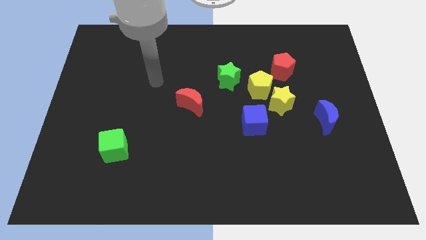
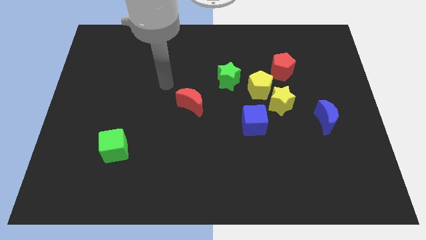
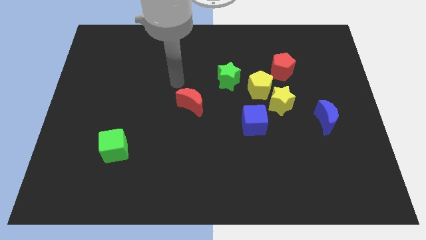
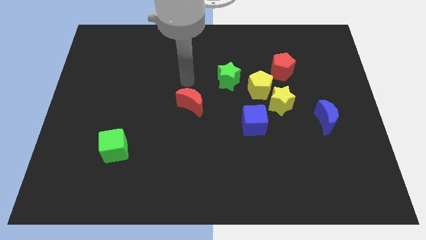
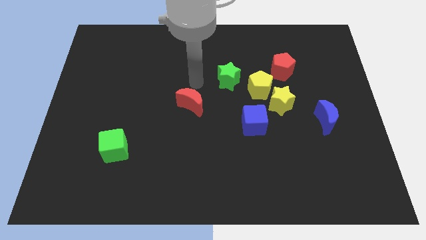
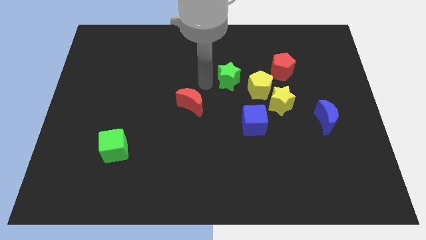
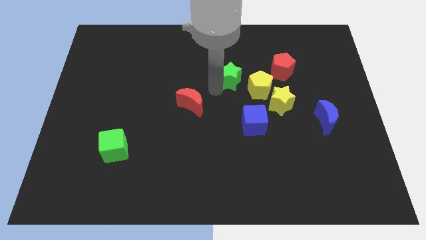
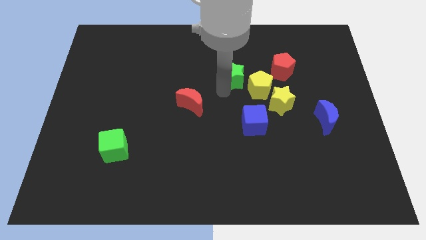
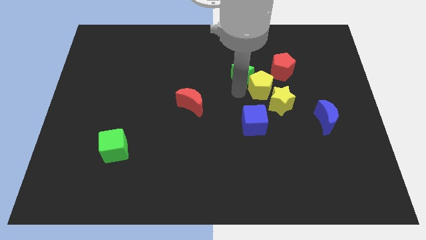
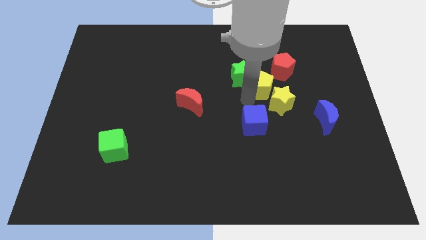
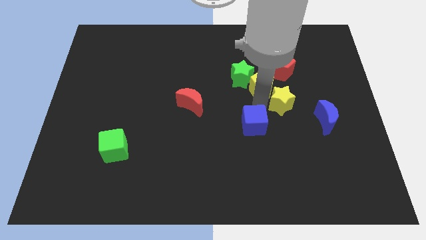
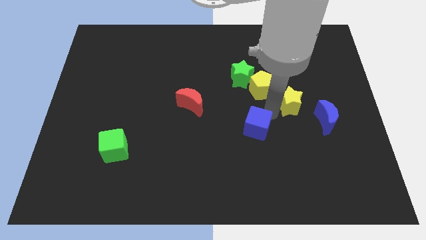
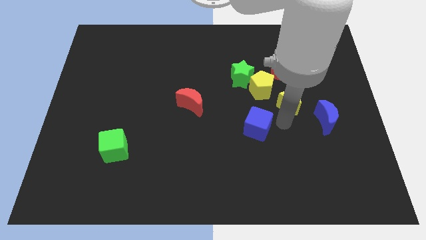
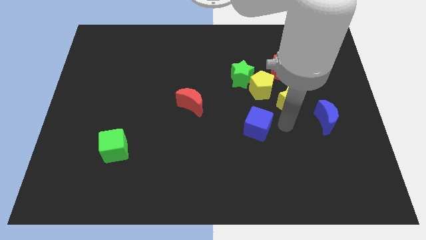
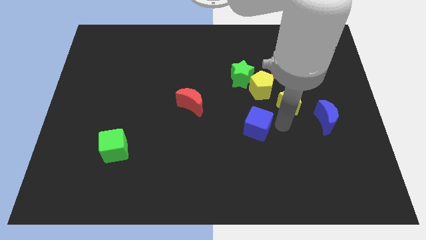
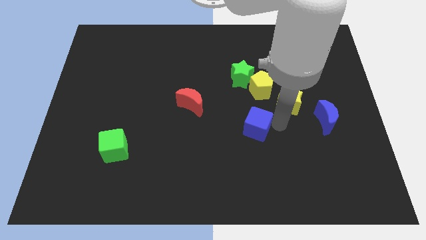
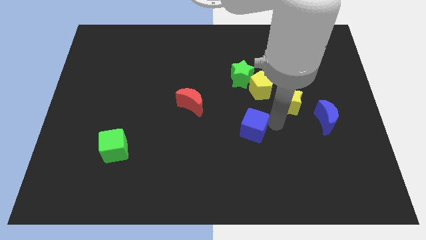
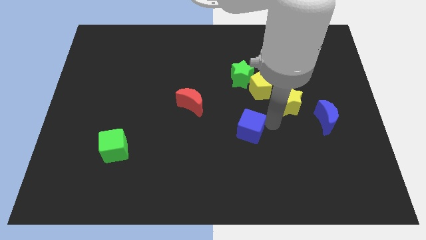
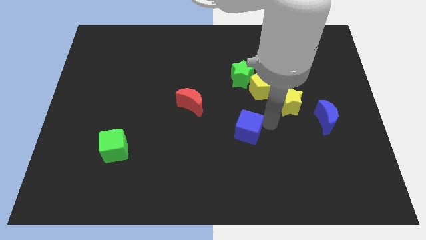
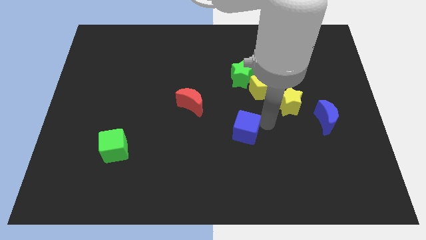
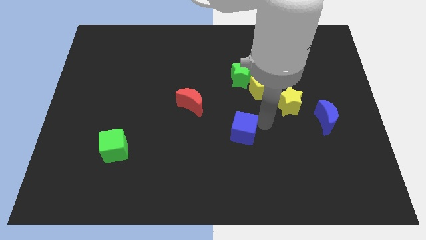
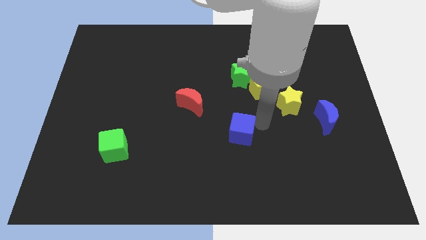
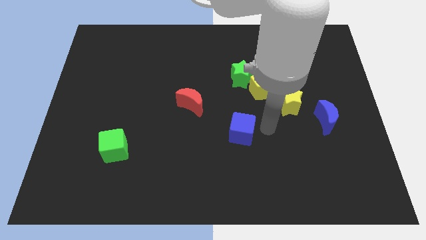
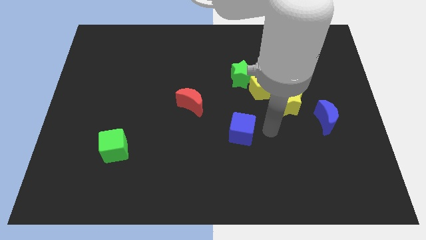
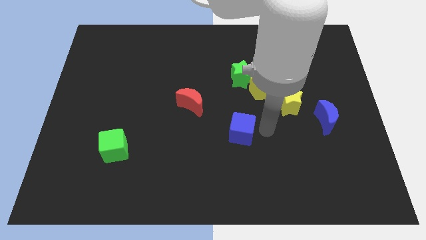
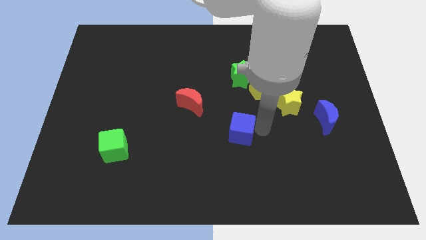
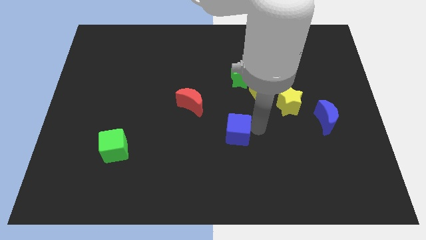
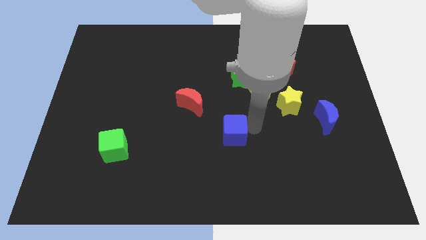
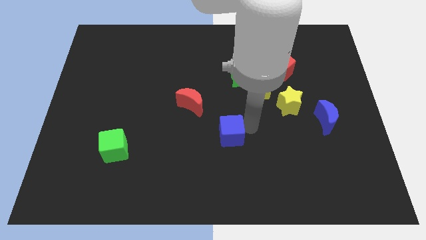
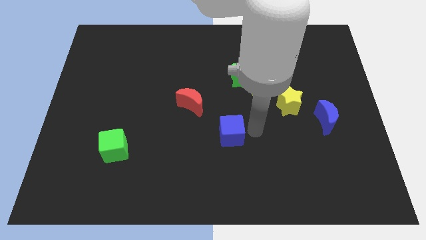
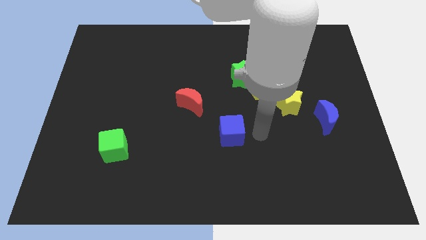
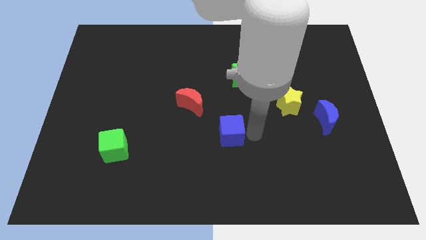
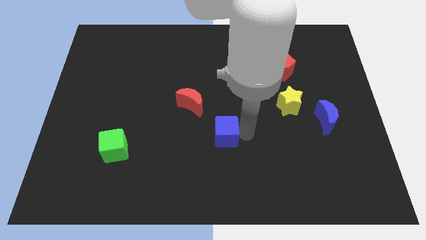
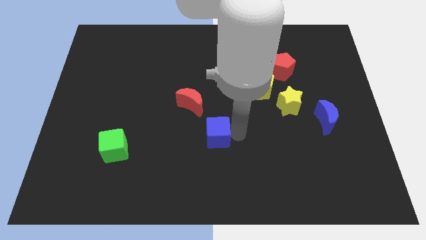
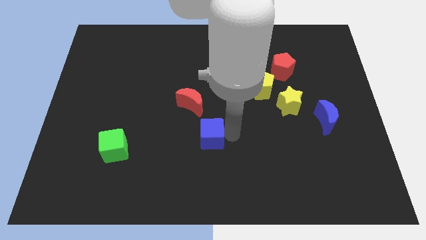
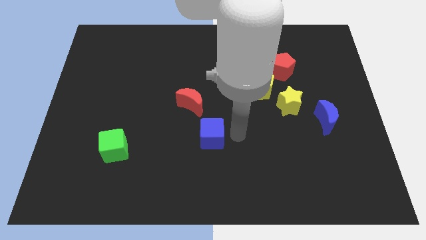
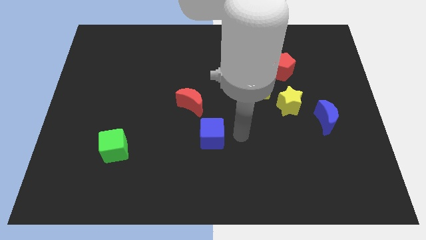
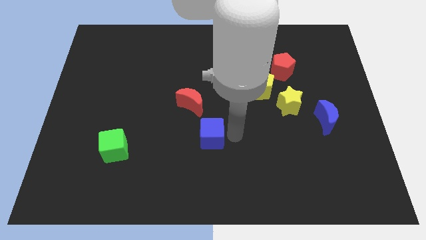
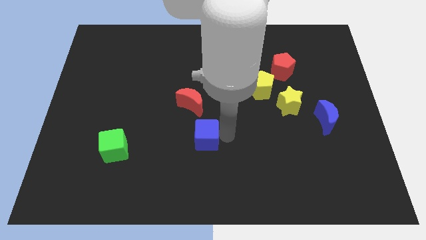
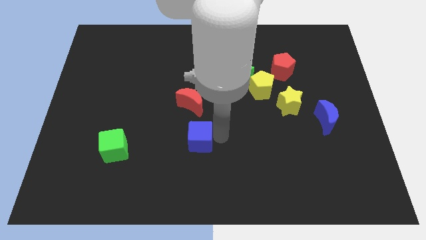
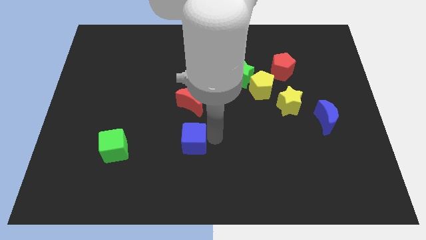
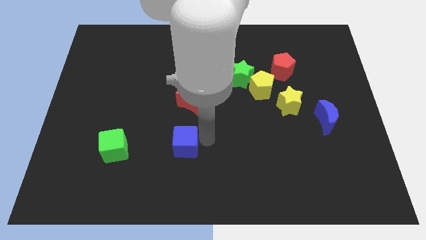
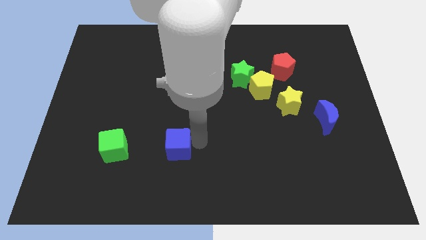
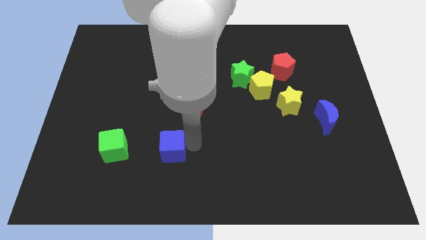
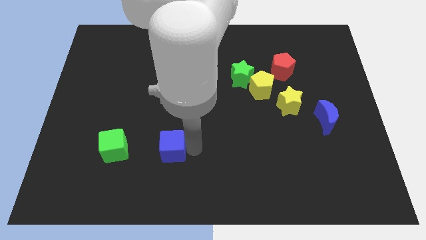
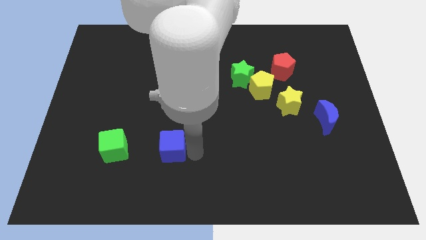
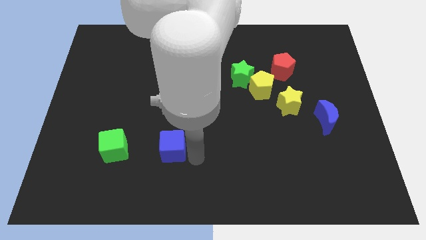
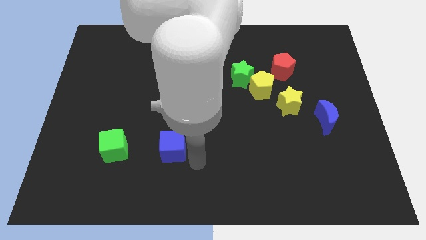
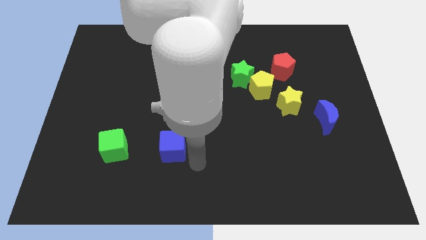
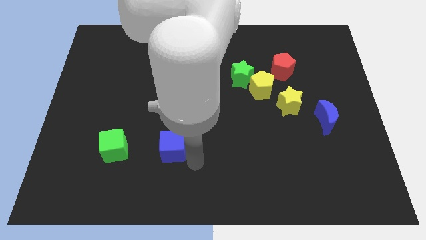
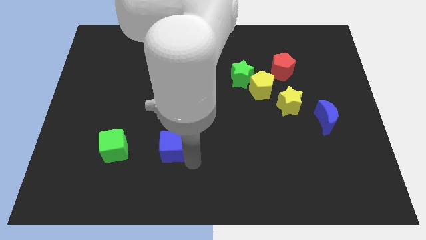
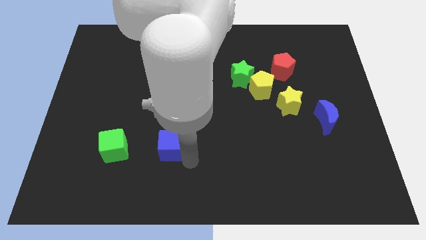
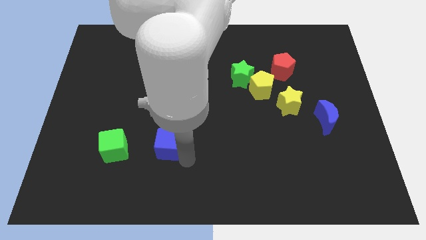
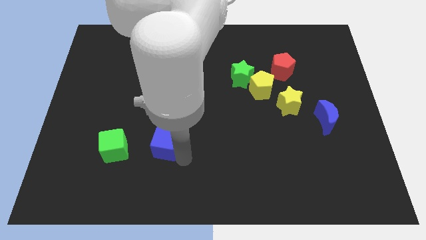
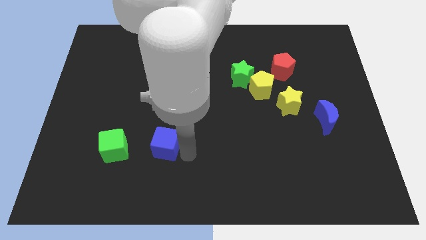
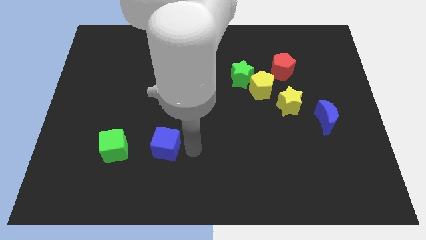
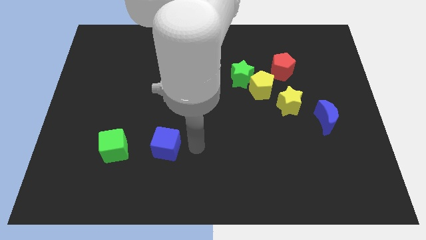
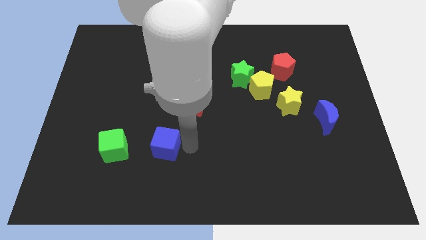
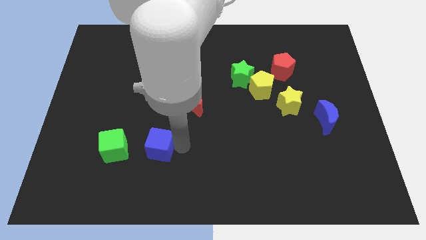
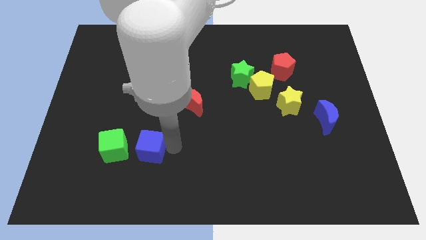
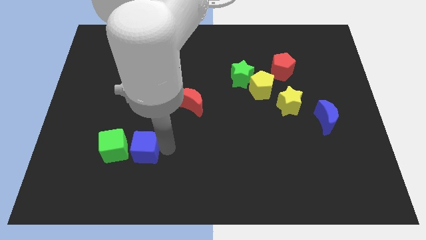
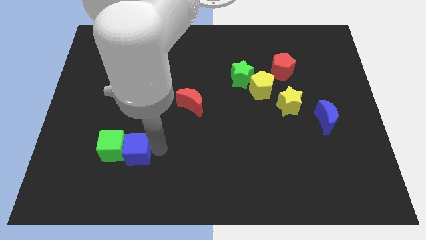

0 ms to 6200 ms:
push the blue cube next to the green cube
